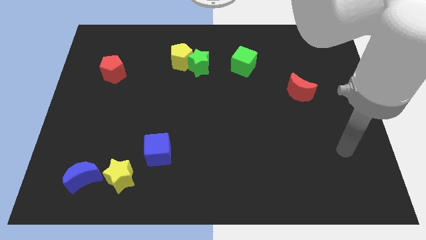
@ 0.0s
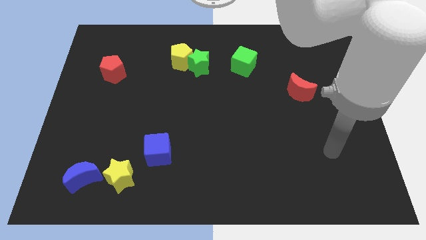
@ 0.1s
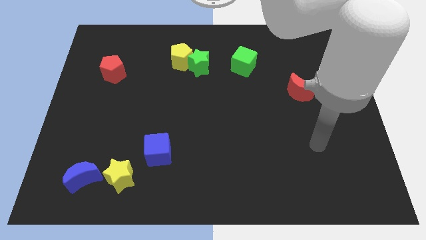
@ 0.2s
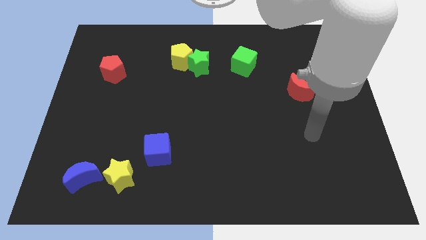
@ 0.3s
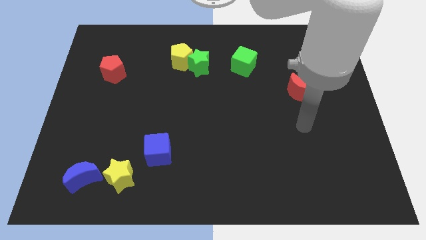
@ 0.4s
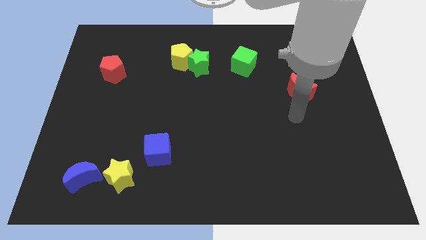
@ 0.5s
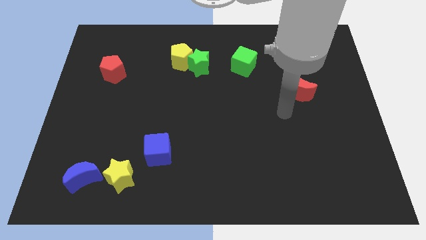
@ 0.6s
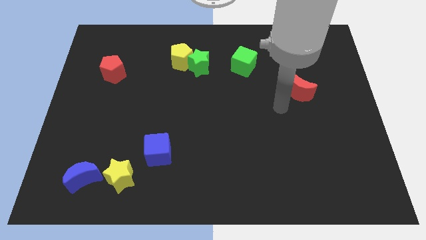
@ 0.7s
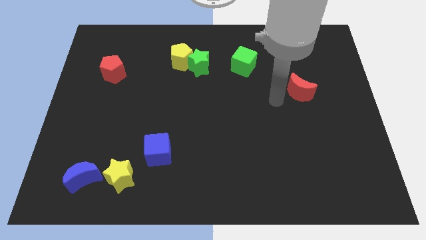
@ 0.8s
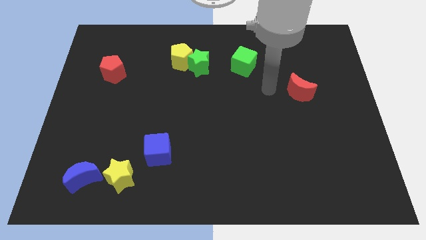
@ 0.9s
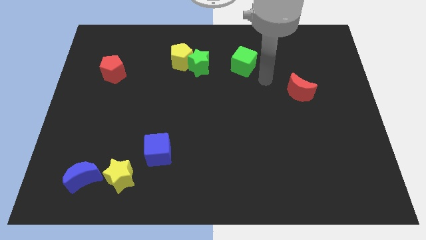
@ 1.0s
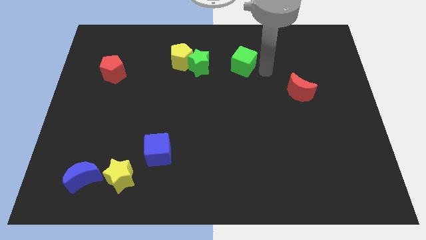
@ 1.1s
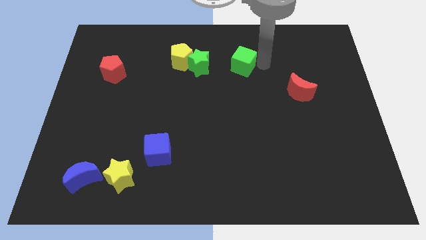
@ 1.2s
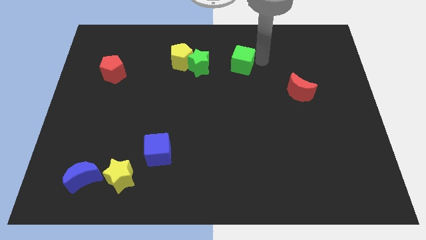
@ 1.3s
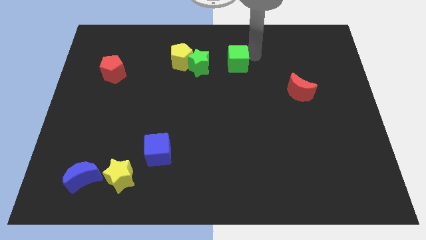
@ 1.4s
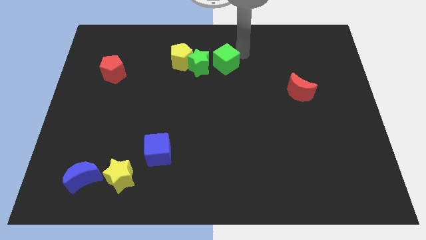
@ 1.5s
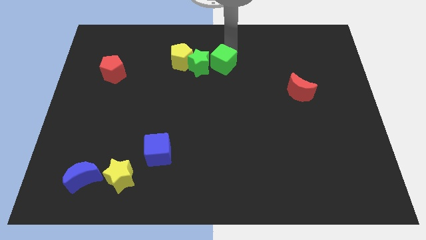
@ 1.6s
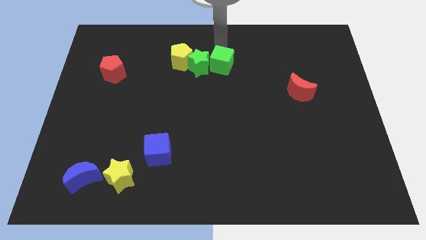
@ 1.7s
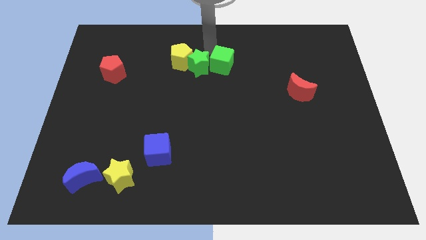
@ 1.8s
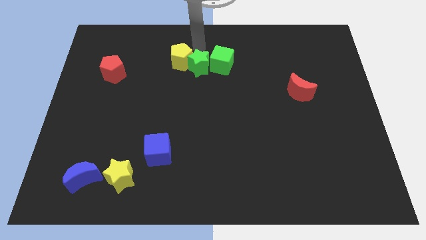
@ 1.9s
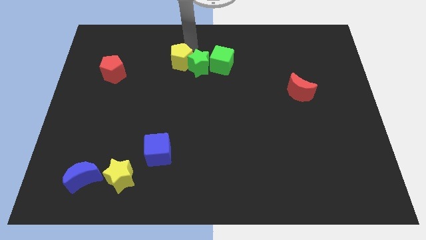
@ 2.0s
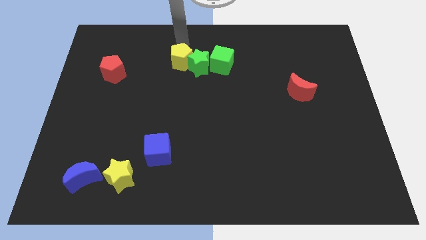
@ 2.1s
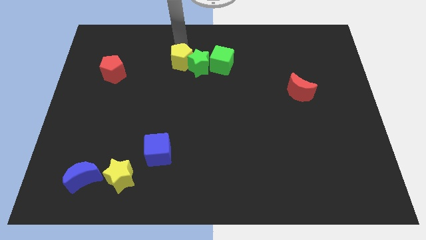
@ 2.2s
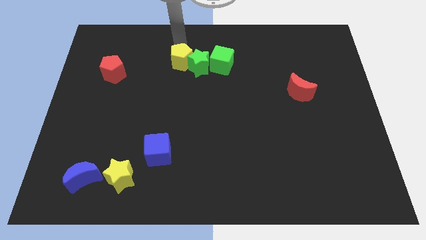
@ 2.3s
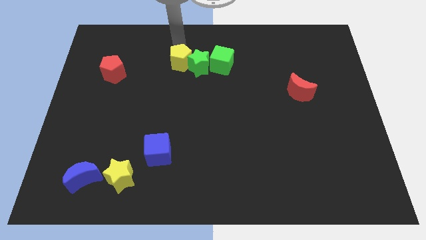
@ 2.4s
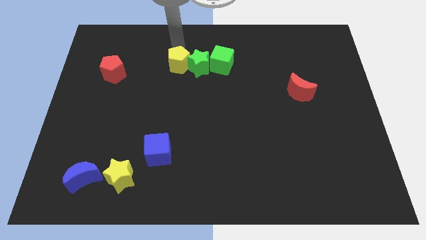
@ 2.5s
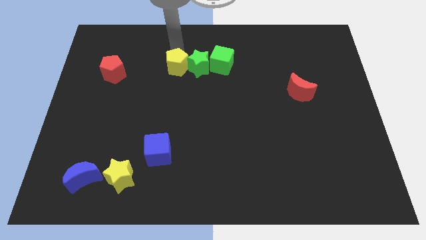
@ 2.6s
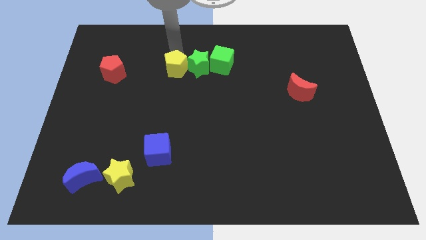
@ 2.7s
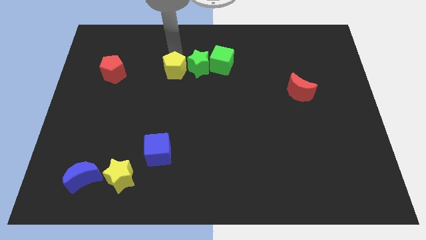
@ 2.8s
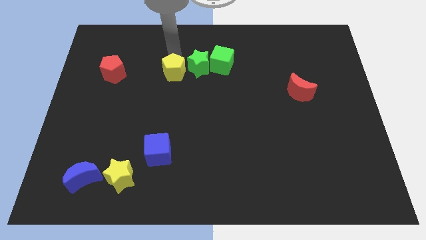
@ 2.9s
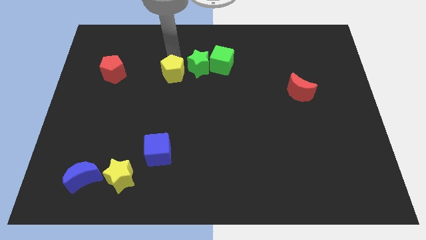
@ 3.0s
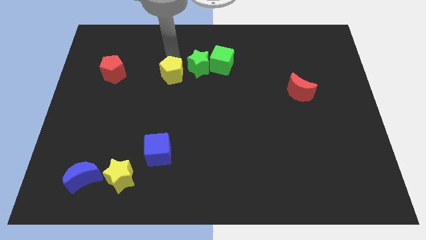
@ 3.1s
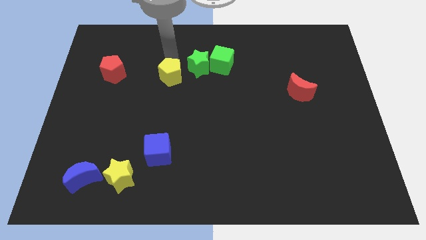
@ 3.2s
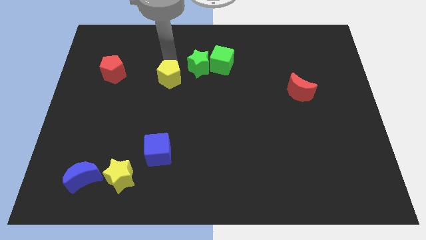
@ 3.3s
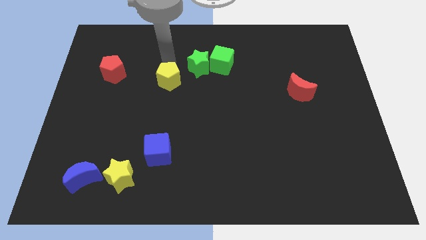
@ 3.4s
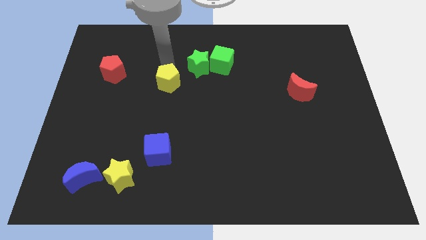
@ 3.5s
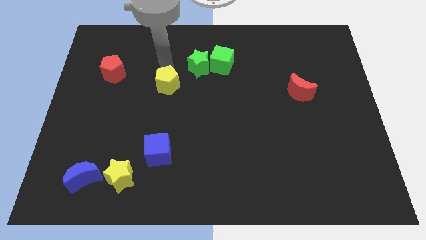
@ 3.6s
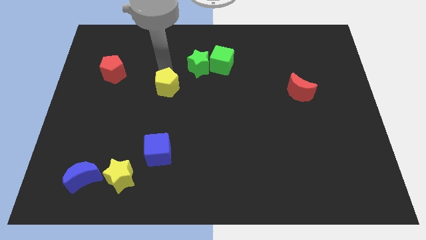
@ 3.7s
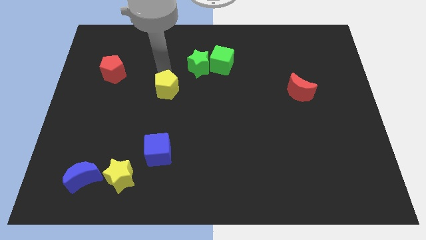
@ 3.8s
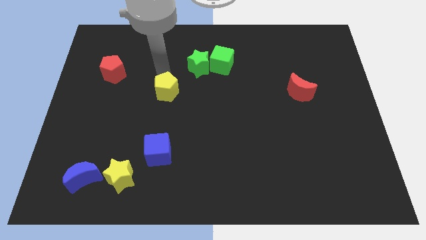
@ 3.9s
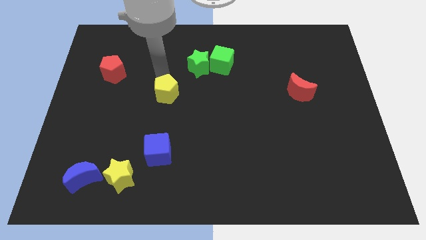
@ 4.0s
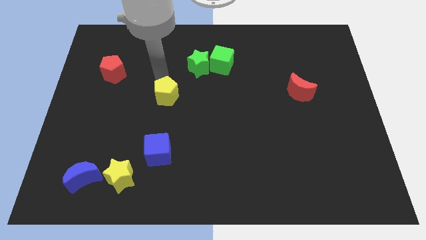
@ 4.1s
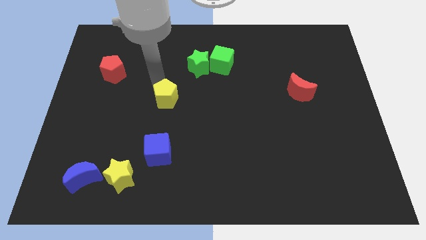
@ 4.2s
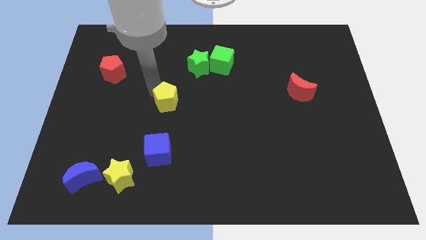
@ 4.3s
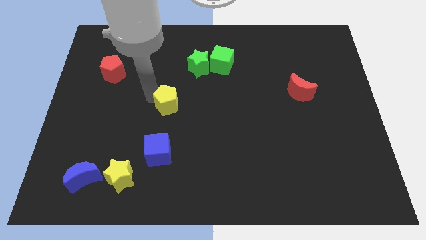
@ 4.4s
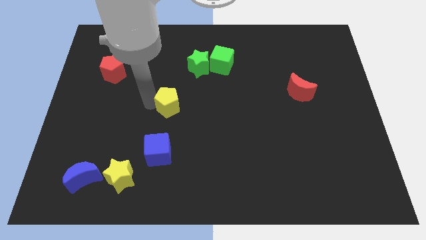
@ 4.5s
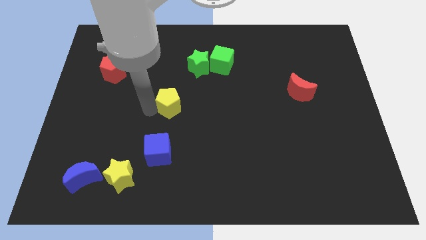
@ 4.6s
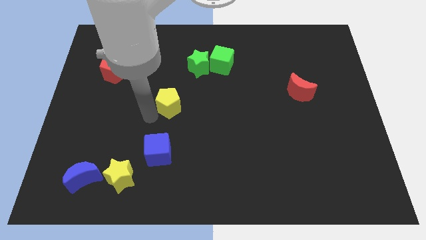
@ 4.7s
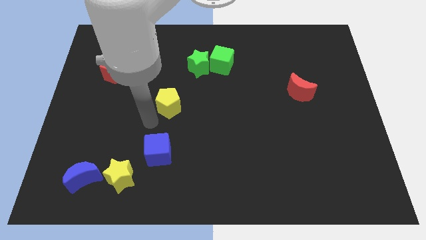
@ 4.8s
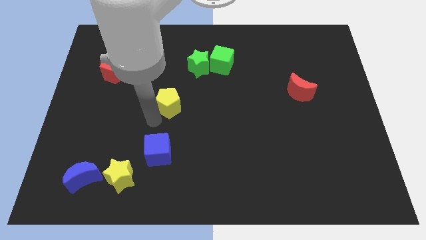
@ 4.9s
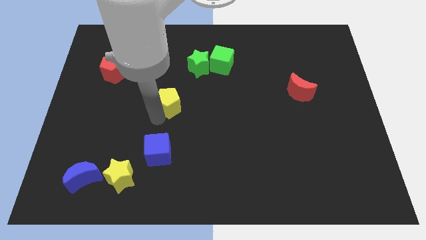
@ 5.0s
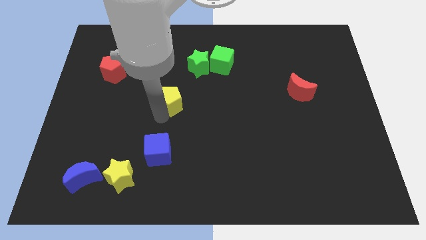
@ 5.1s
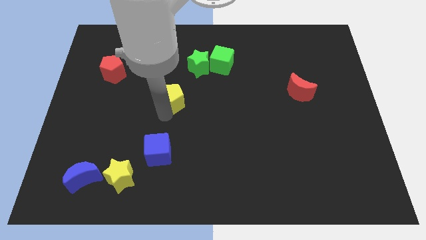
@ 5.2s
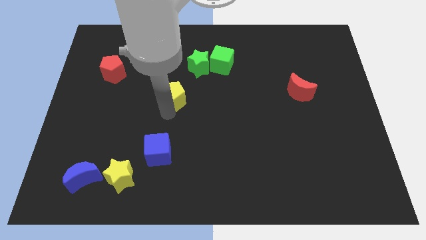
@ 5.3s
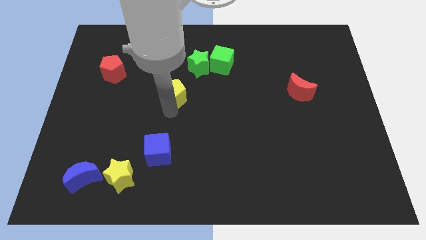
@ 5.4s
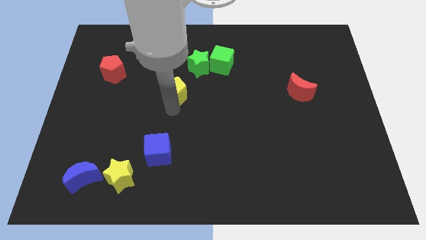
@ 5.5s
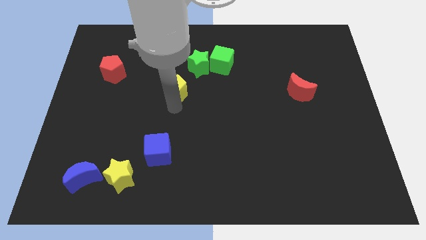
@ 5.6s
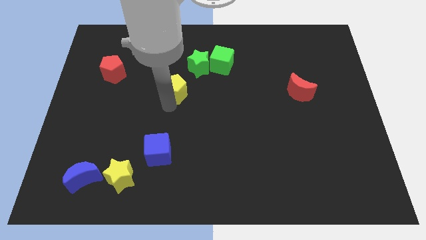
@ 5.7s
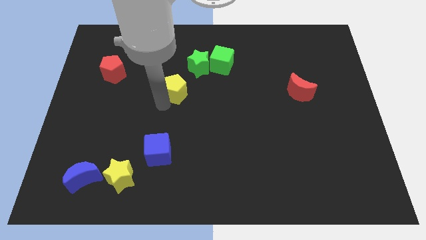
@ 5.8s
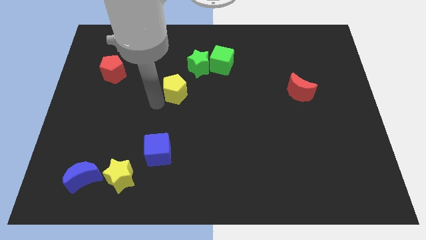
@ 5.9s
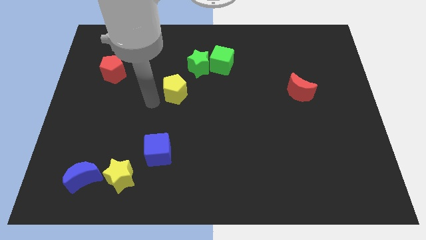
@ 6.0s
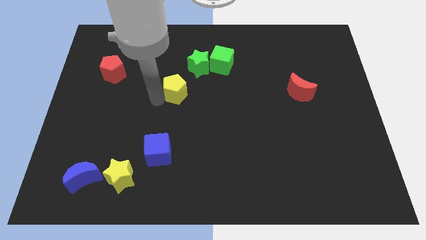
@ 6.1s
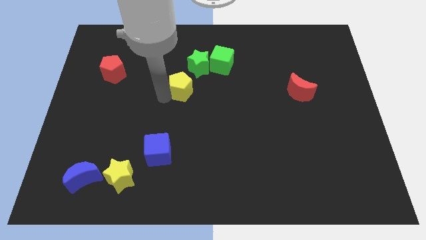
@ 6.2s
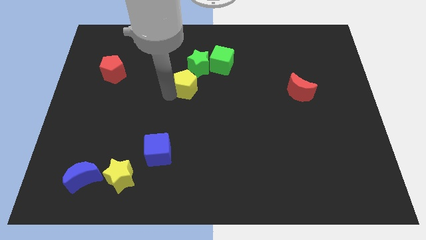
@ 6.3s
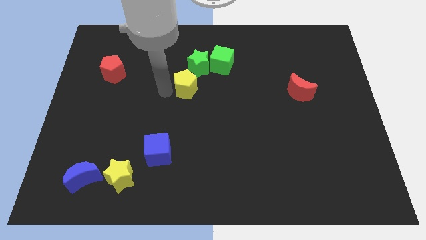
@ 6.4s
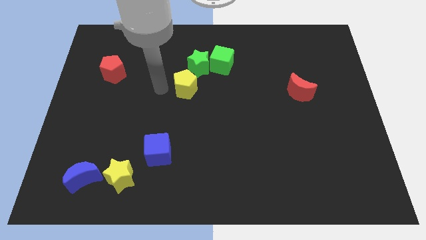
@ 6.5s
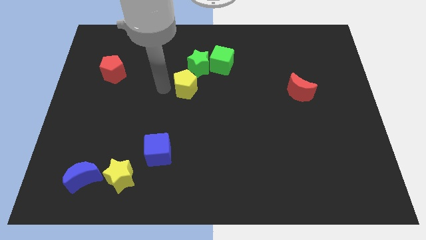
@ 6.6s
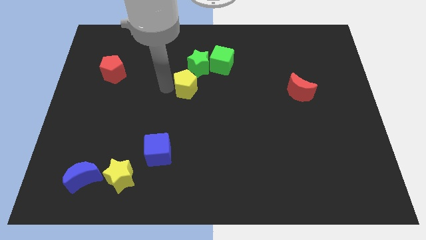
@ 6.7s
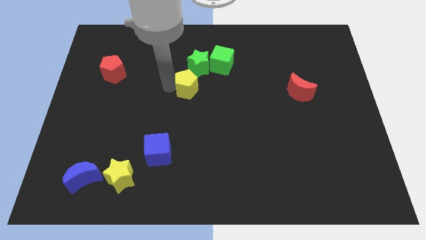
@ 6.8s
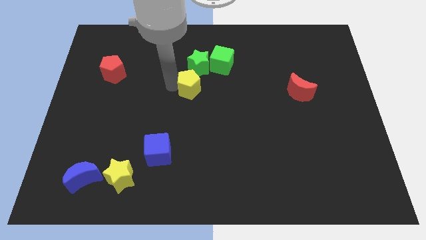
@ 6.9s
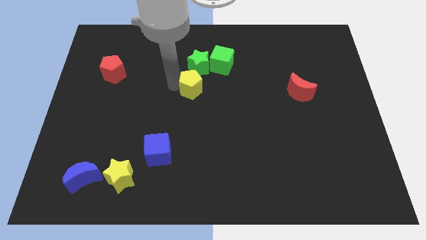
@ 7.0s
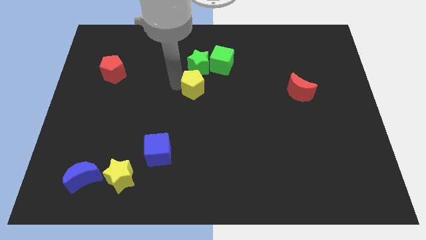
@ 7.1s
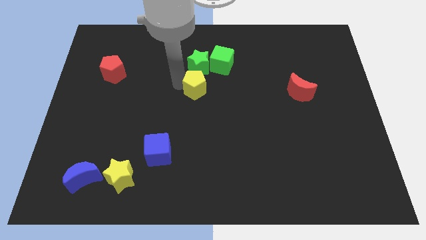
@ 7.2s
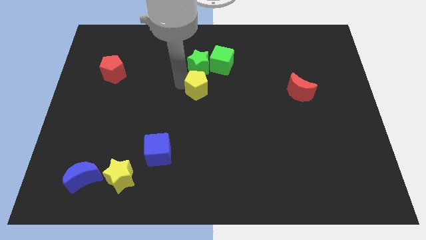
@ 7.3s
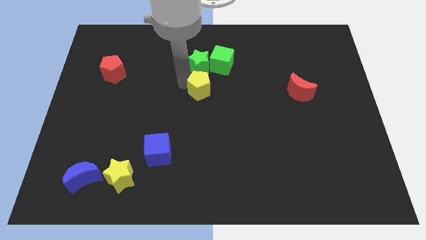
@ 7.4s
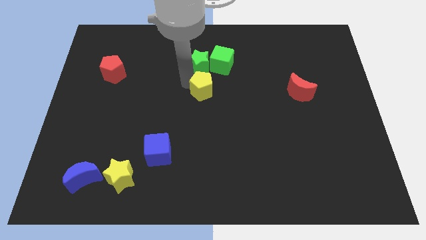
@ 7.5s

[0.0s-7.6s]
slide the yellow pentagon to the bottom side of the green cube
